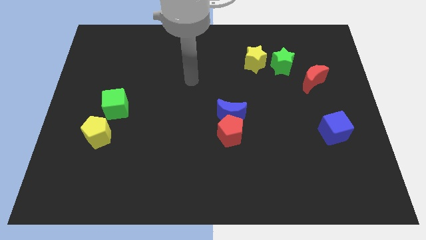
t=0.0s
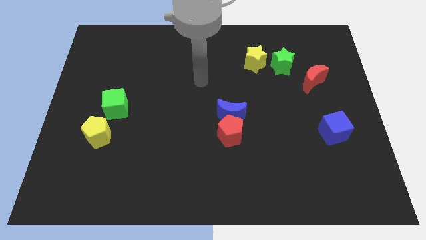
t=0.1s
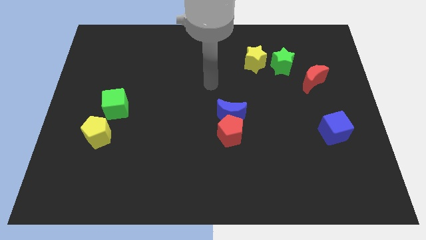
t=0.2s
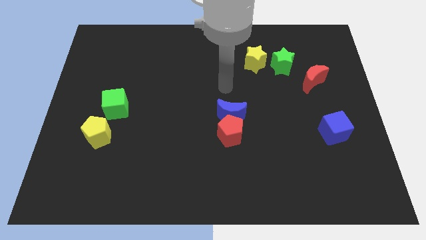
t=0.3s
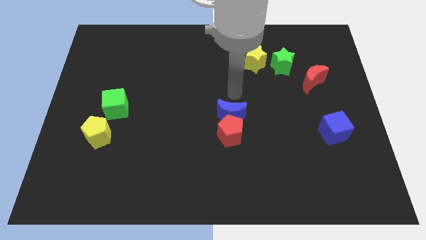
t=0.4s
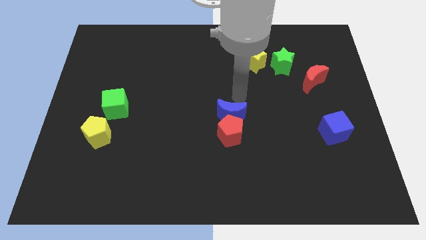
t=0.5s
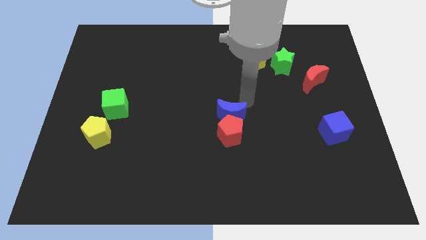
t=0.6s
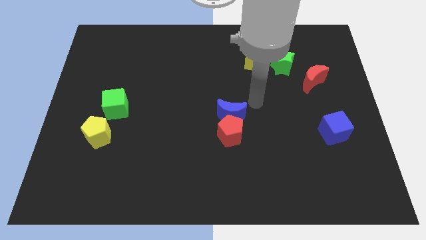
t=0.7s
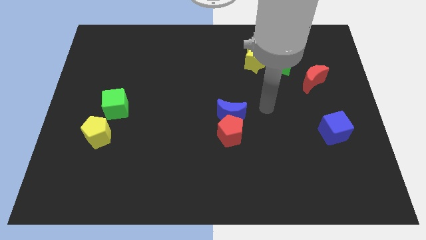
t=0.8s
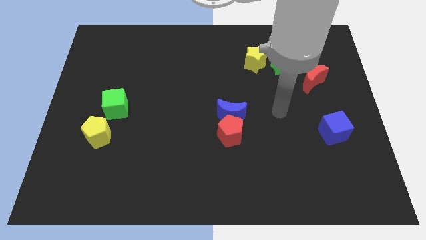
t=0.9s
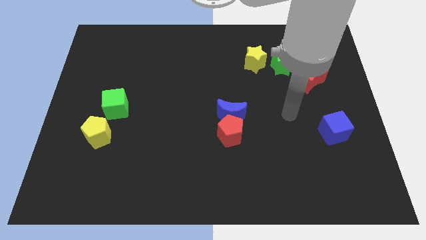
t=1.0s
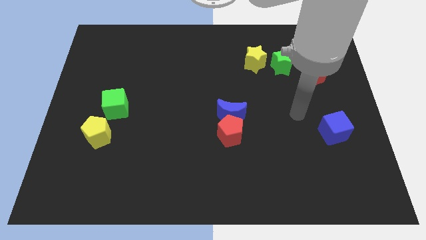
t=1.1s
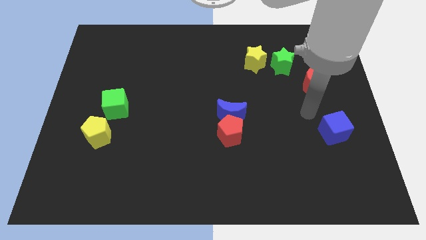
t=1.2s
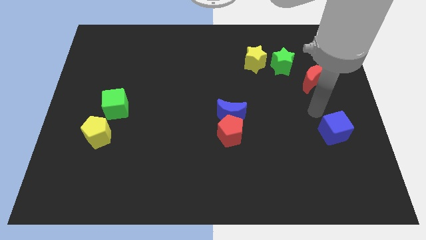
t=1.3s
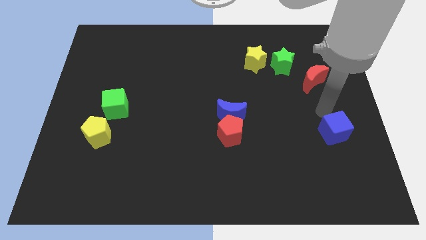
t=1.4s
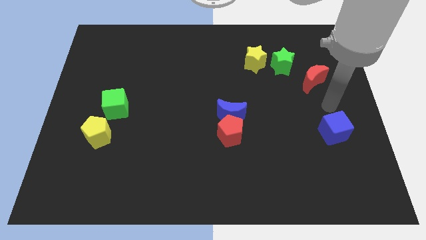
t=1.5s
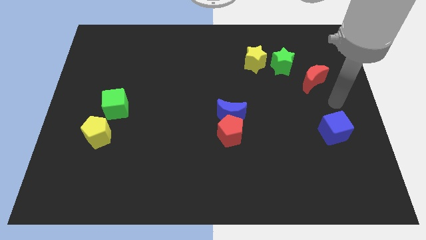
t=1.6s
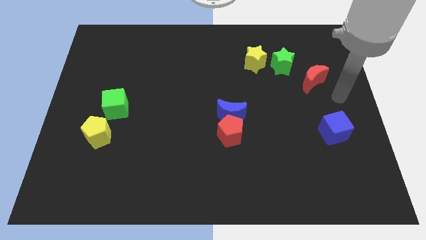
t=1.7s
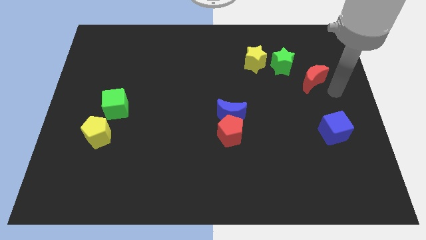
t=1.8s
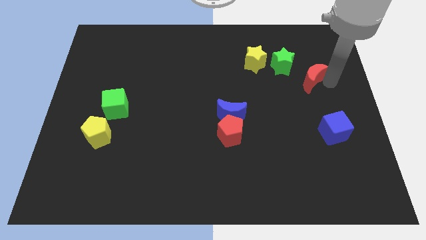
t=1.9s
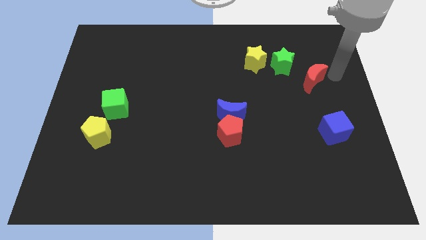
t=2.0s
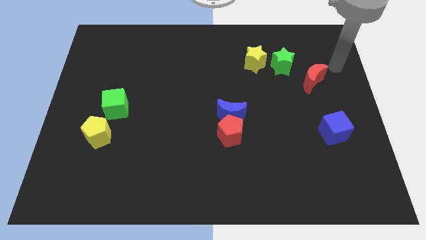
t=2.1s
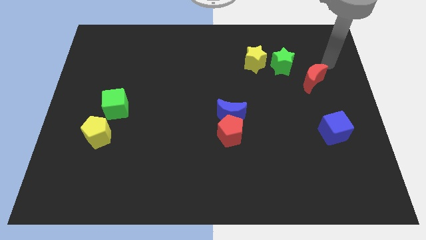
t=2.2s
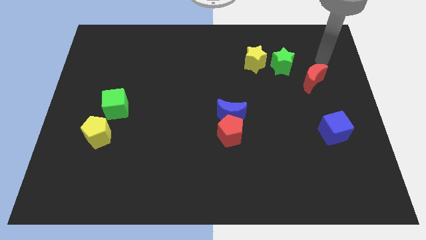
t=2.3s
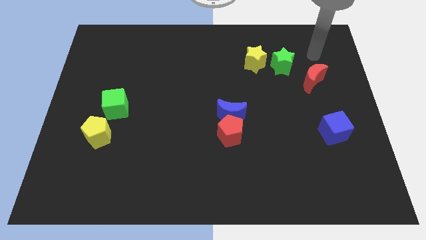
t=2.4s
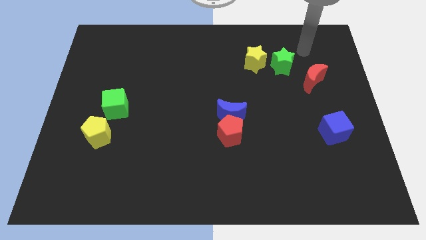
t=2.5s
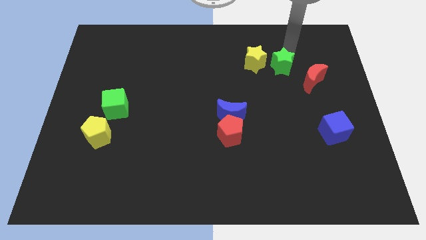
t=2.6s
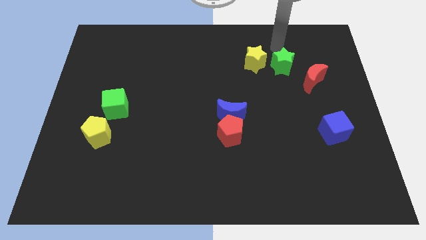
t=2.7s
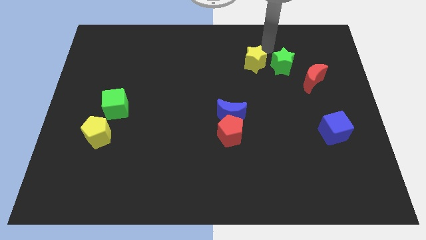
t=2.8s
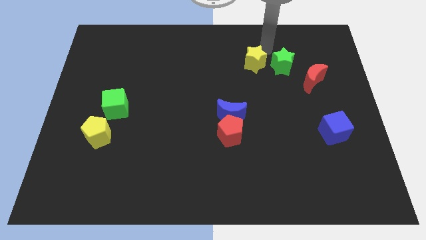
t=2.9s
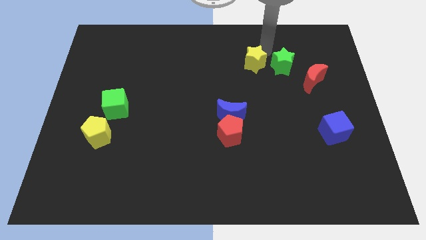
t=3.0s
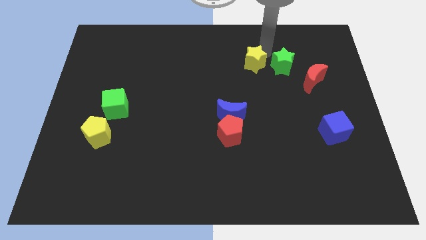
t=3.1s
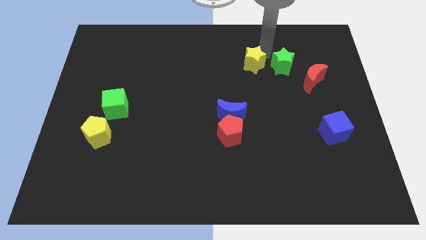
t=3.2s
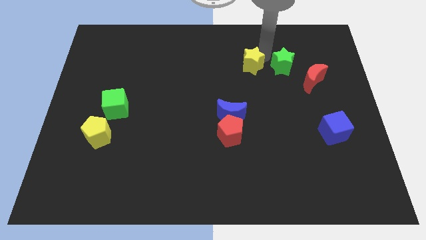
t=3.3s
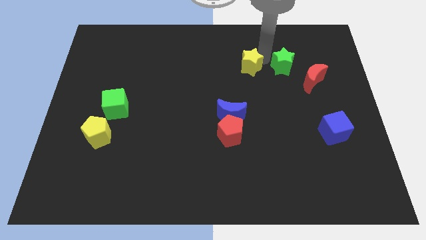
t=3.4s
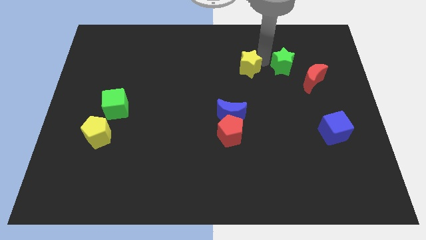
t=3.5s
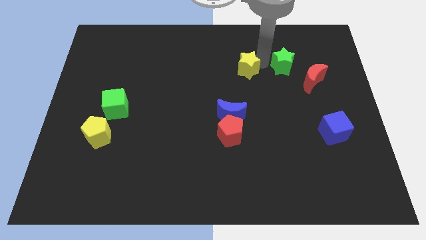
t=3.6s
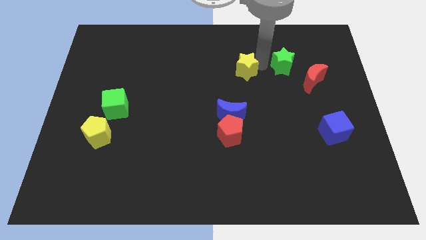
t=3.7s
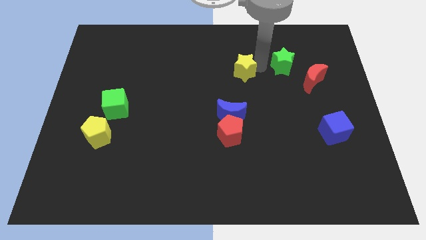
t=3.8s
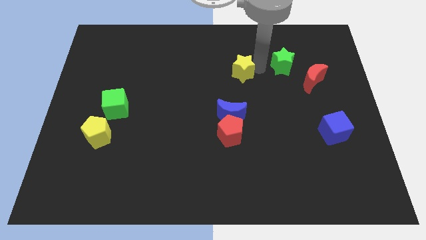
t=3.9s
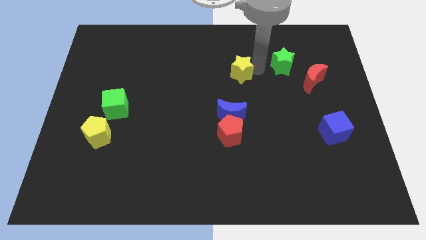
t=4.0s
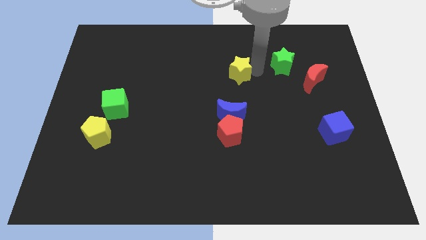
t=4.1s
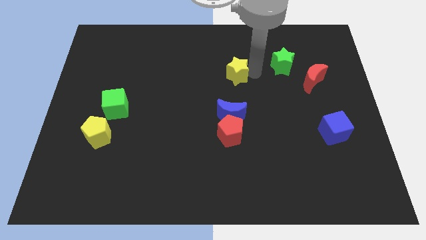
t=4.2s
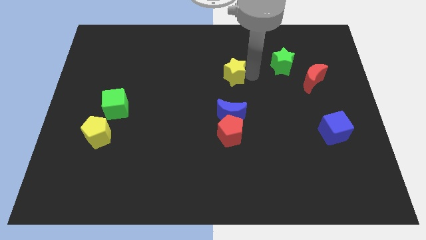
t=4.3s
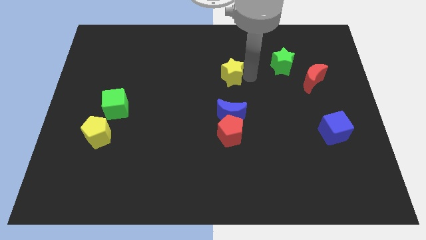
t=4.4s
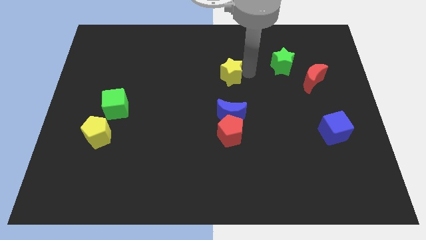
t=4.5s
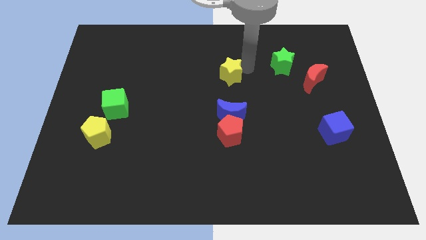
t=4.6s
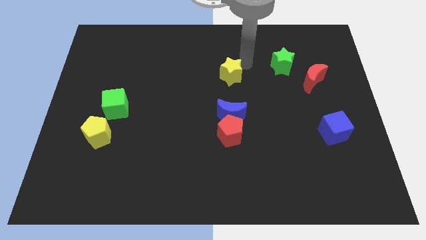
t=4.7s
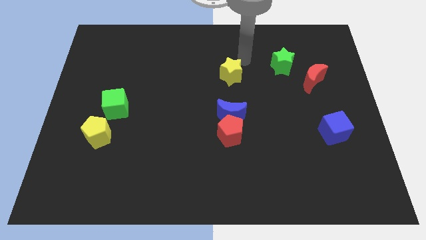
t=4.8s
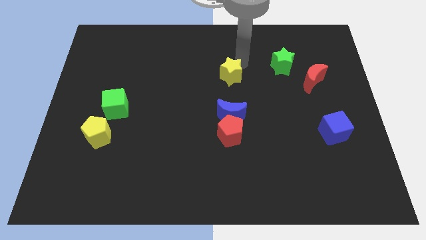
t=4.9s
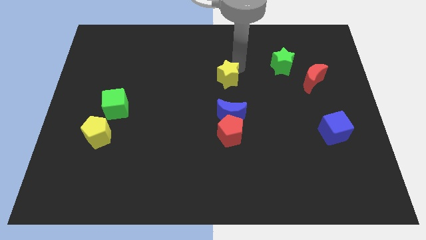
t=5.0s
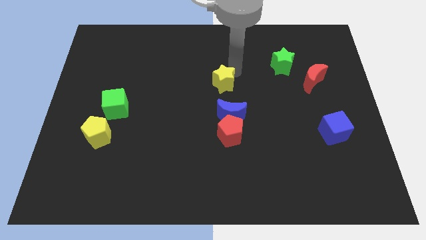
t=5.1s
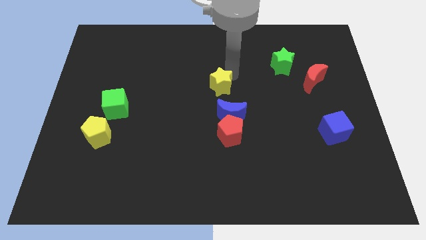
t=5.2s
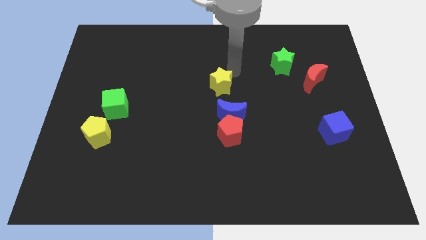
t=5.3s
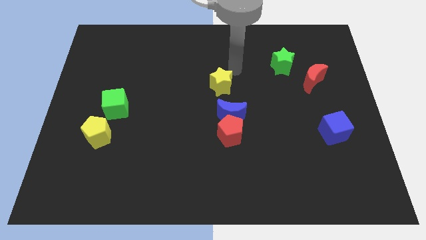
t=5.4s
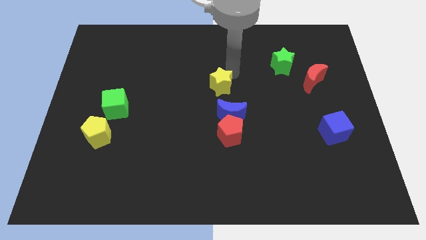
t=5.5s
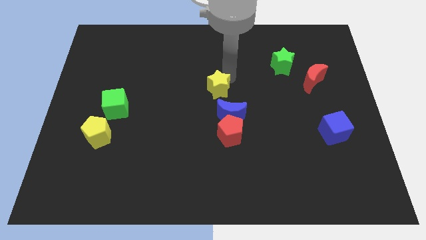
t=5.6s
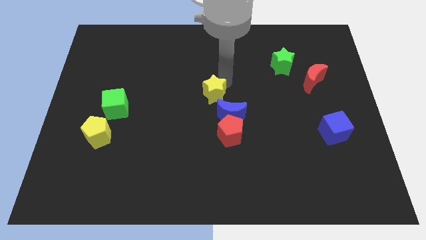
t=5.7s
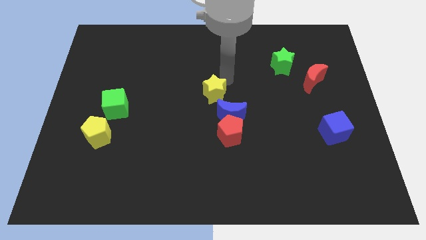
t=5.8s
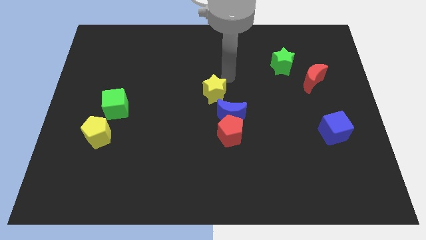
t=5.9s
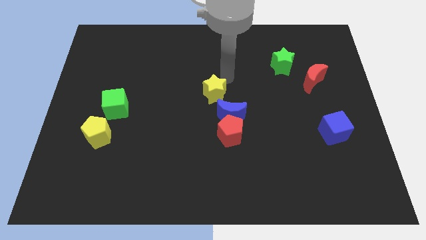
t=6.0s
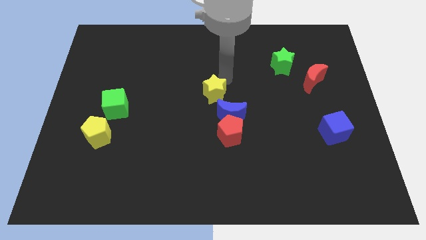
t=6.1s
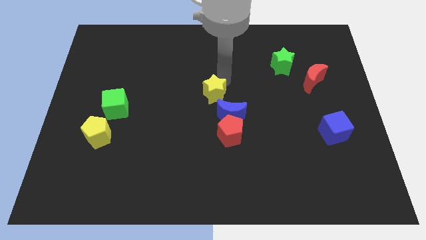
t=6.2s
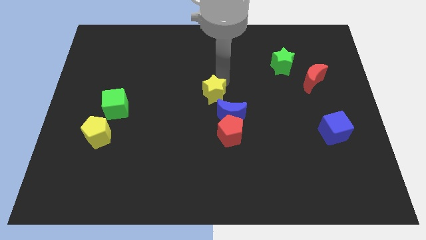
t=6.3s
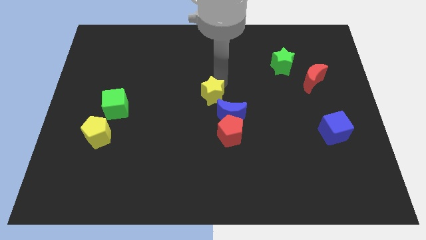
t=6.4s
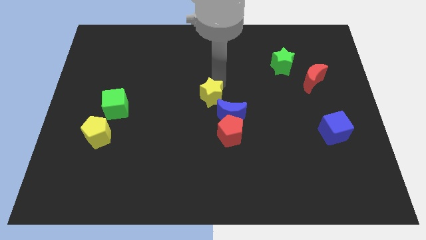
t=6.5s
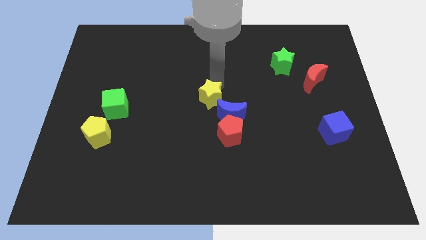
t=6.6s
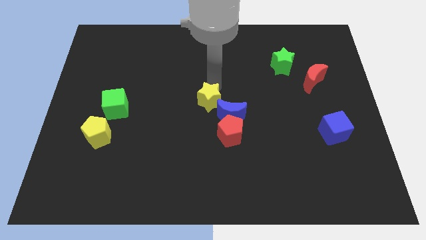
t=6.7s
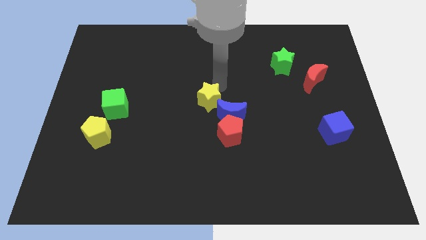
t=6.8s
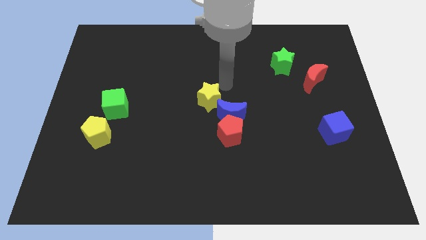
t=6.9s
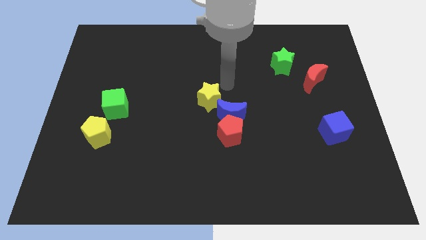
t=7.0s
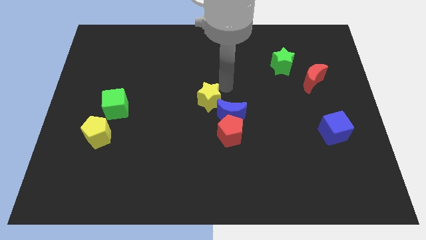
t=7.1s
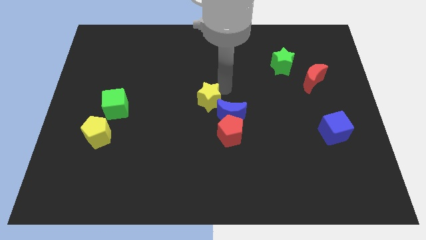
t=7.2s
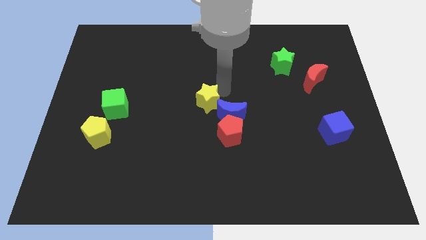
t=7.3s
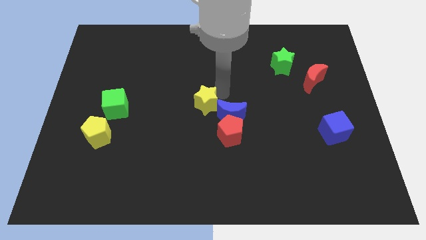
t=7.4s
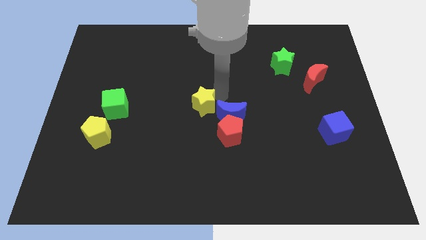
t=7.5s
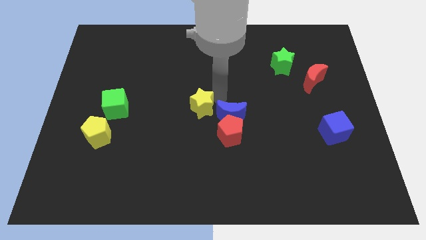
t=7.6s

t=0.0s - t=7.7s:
move the yellow star down and to the left diagonally

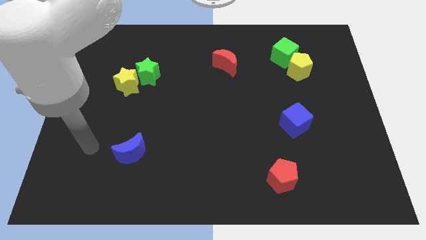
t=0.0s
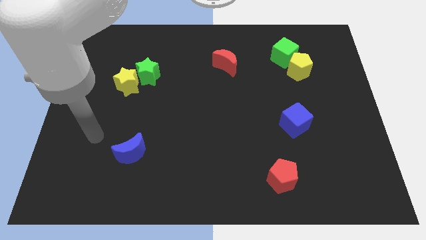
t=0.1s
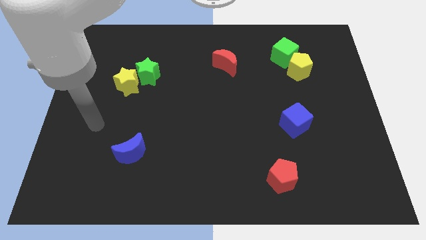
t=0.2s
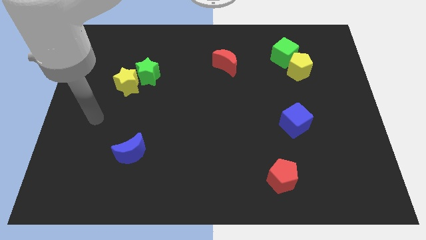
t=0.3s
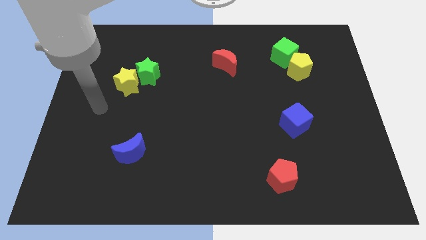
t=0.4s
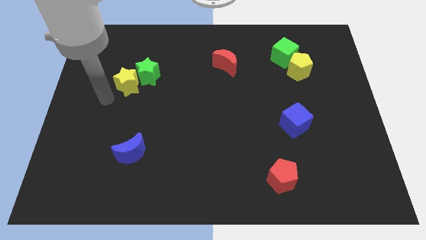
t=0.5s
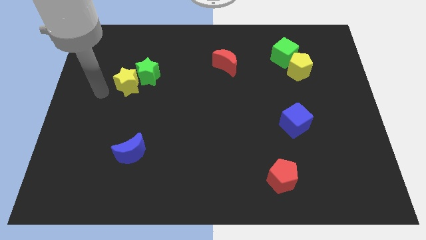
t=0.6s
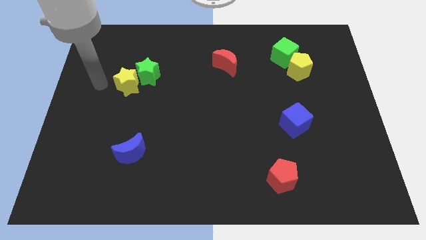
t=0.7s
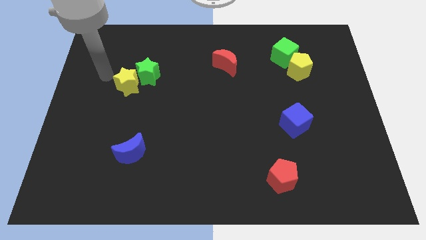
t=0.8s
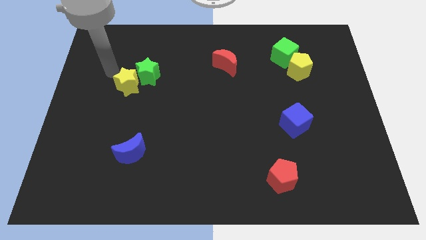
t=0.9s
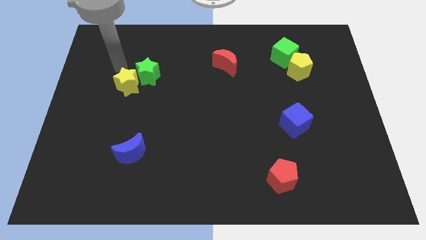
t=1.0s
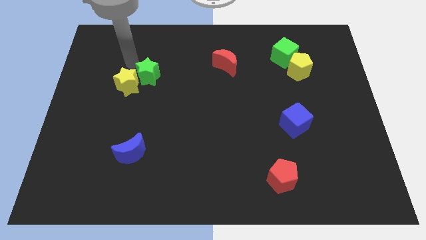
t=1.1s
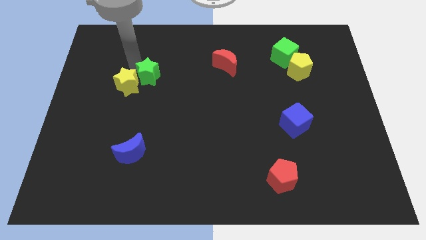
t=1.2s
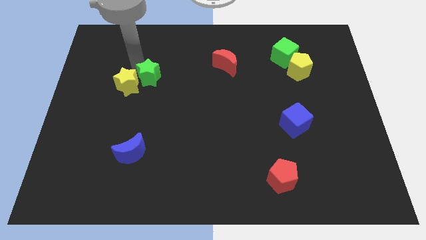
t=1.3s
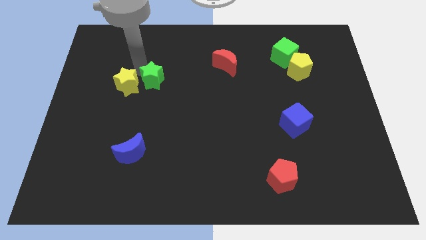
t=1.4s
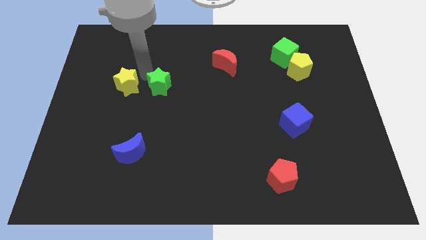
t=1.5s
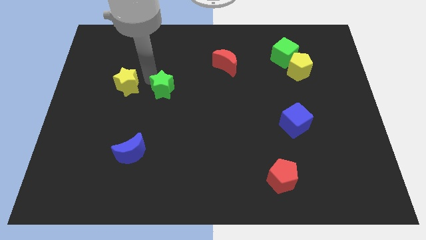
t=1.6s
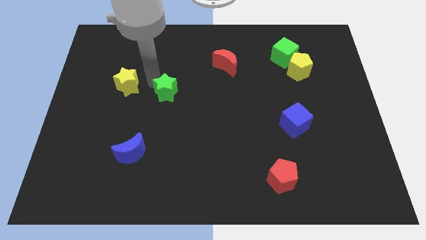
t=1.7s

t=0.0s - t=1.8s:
push the green star down and then to the right somewhat
